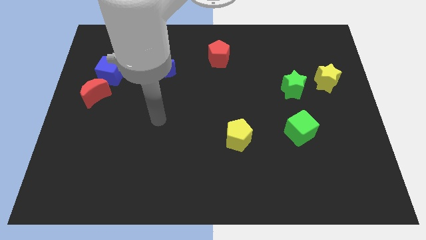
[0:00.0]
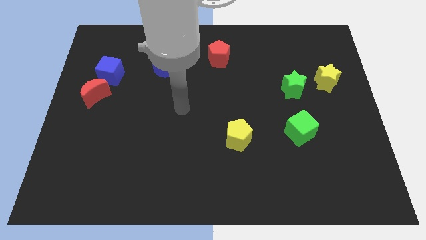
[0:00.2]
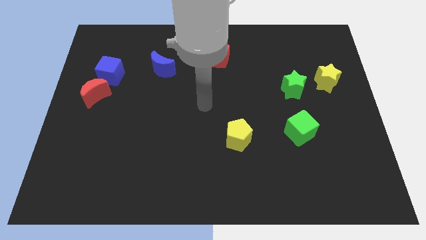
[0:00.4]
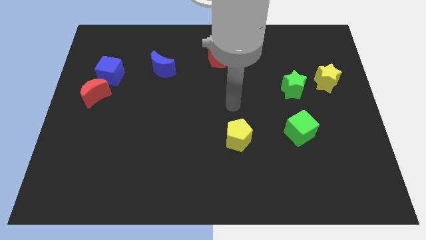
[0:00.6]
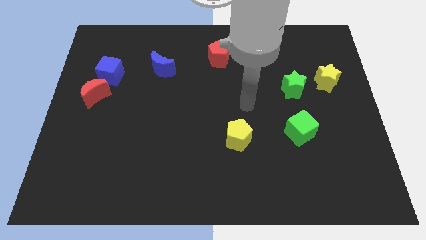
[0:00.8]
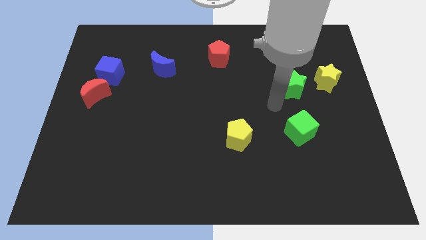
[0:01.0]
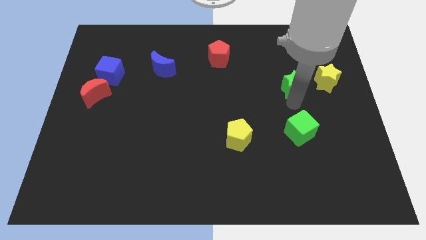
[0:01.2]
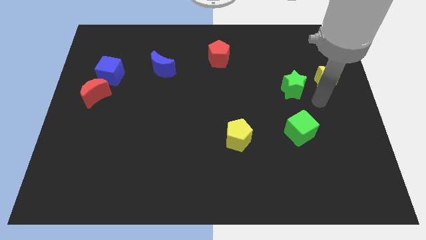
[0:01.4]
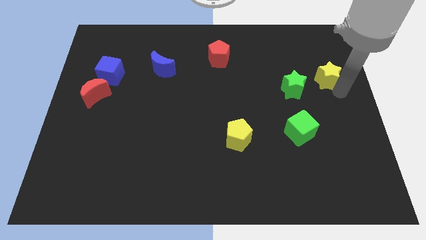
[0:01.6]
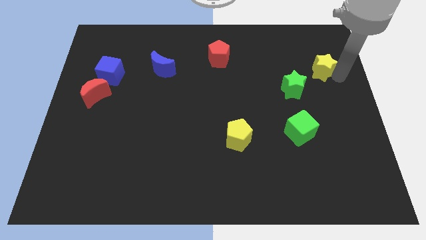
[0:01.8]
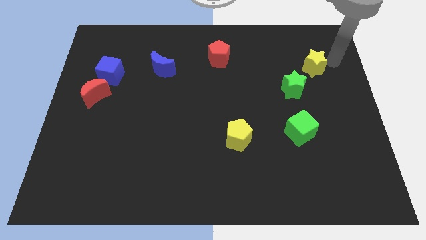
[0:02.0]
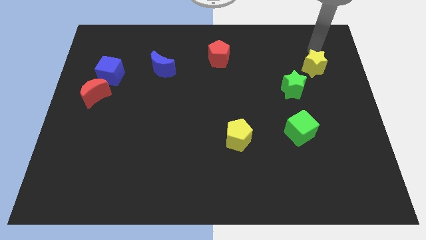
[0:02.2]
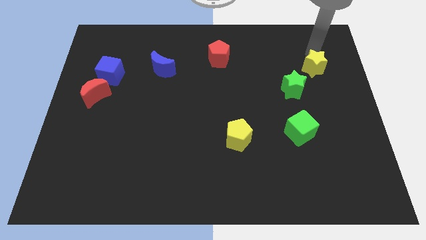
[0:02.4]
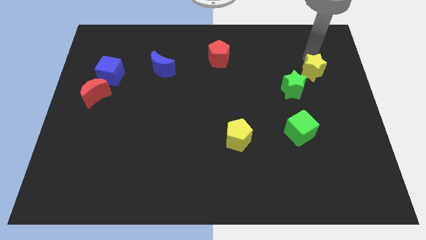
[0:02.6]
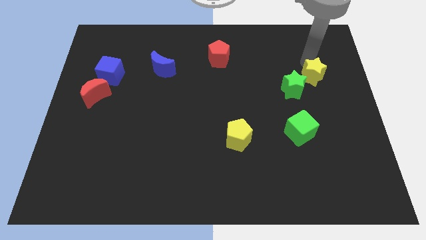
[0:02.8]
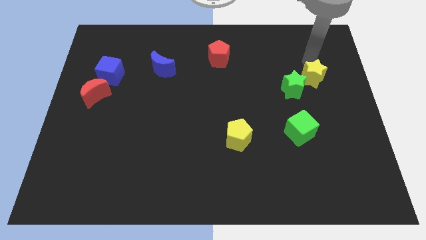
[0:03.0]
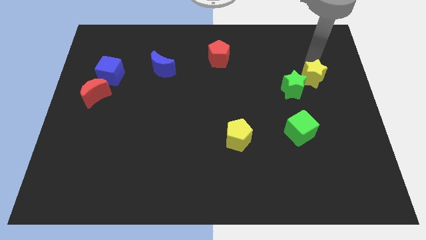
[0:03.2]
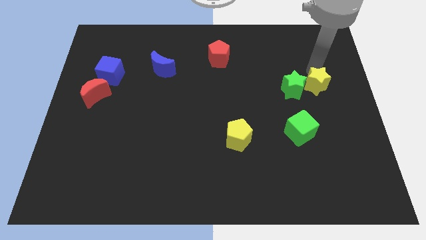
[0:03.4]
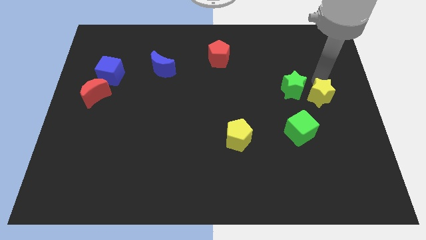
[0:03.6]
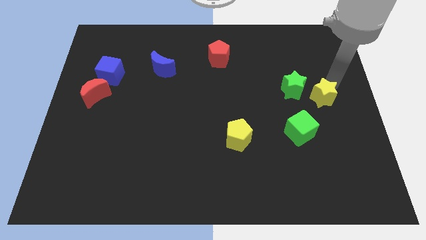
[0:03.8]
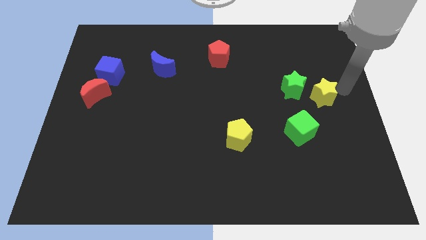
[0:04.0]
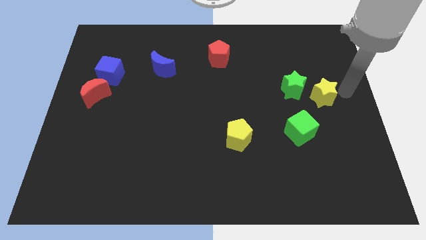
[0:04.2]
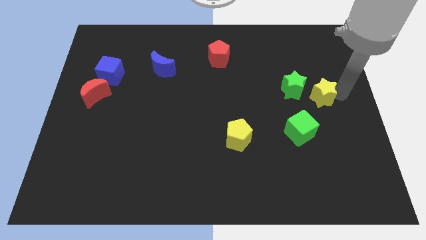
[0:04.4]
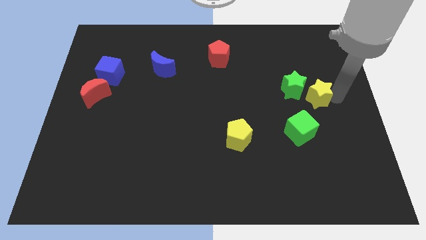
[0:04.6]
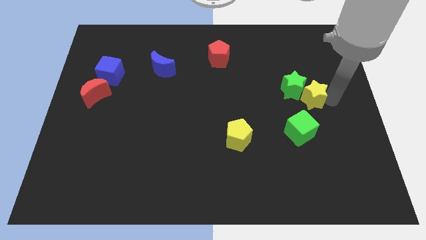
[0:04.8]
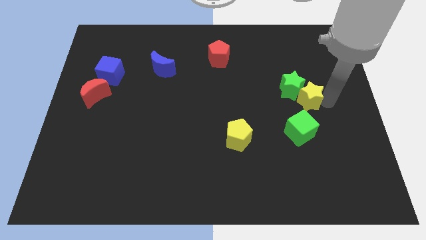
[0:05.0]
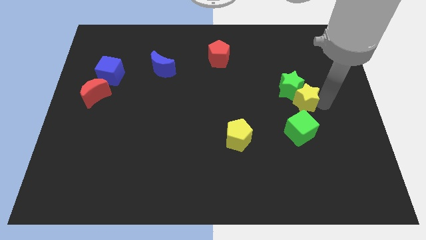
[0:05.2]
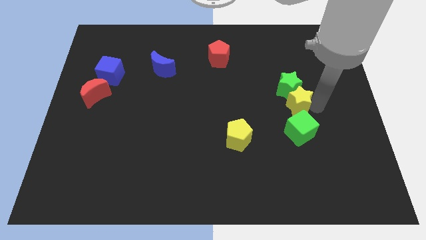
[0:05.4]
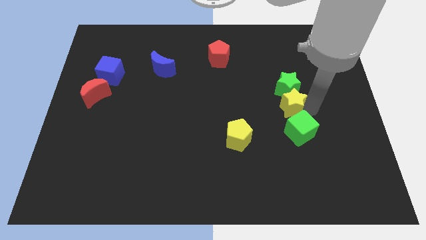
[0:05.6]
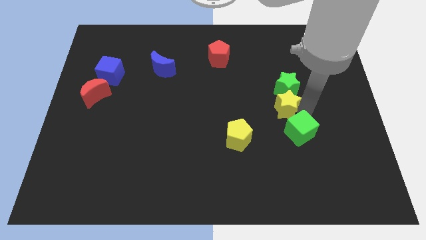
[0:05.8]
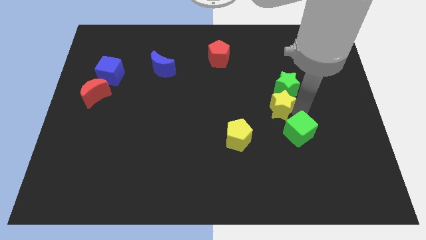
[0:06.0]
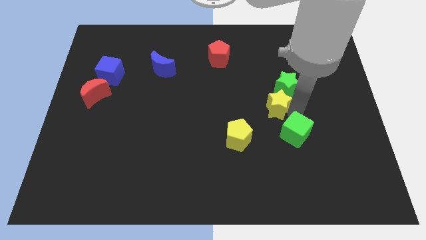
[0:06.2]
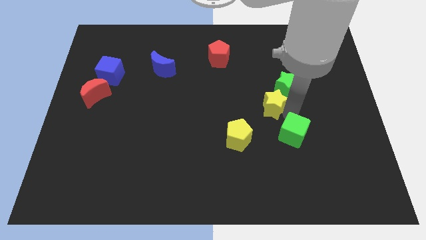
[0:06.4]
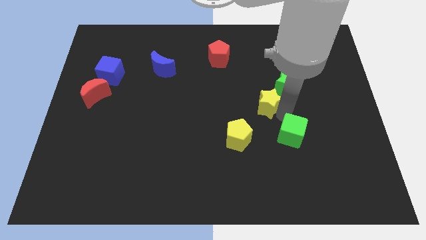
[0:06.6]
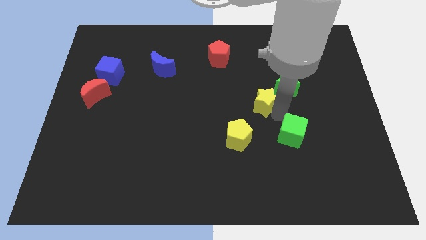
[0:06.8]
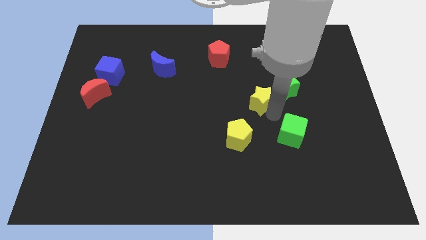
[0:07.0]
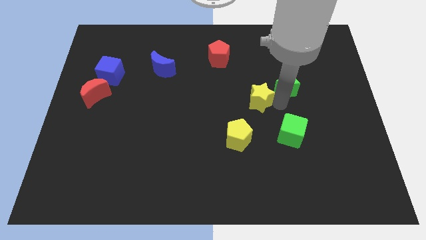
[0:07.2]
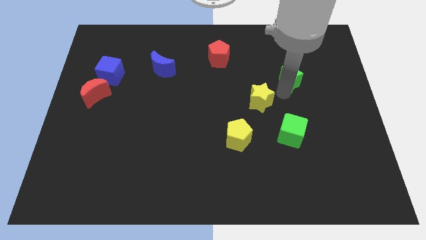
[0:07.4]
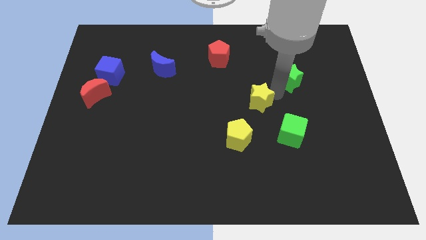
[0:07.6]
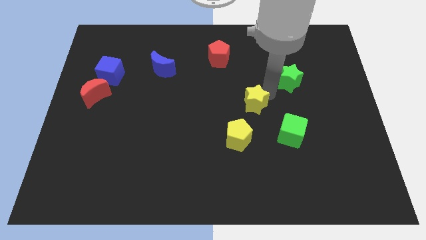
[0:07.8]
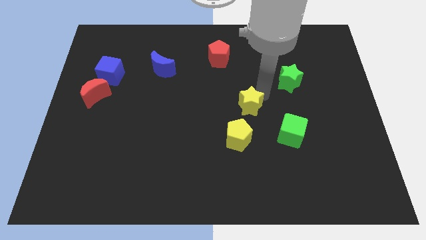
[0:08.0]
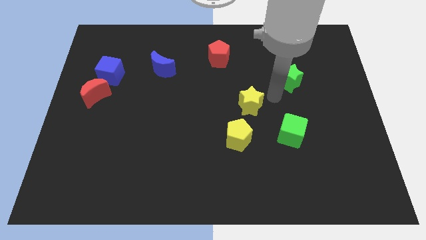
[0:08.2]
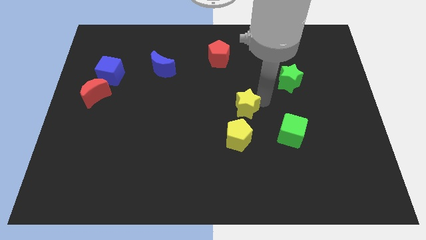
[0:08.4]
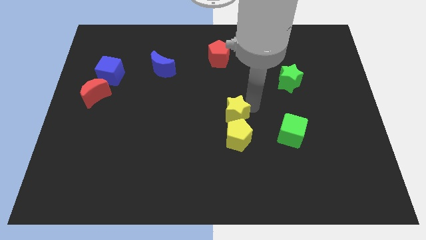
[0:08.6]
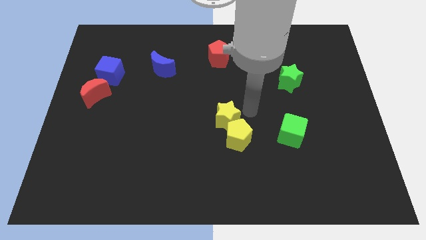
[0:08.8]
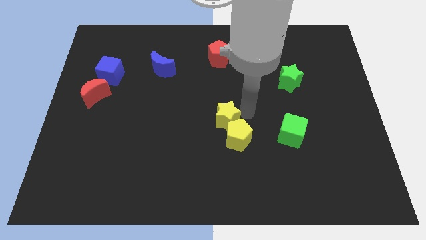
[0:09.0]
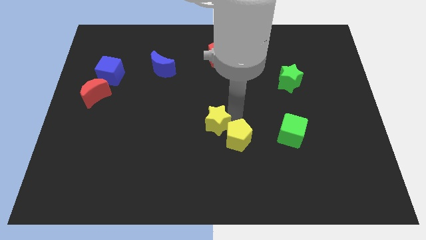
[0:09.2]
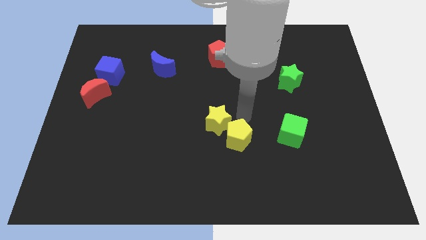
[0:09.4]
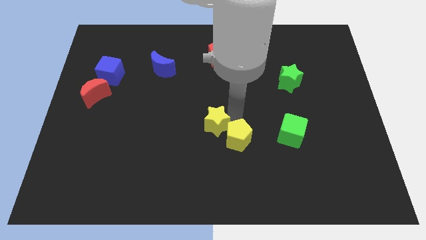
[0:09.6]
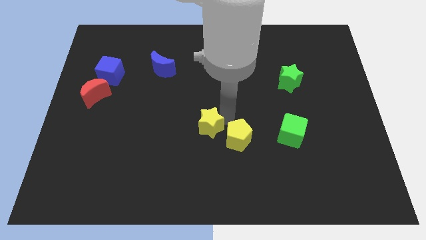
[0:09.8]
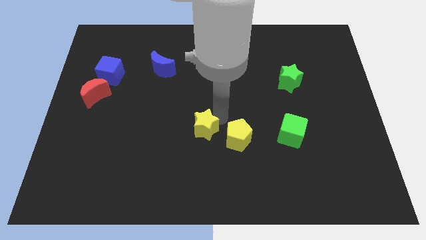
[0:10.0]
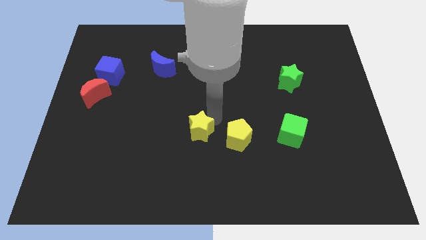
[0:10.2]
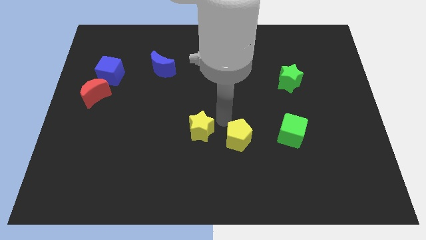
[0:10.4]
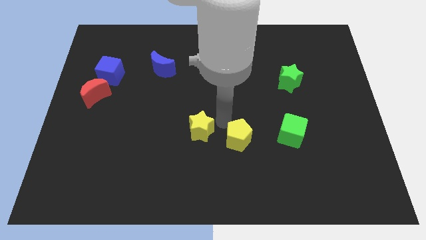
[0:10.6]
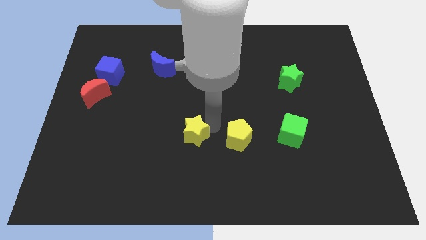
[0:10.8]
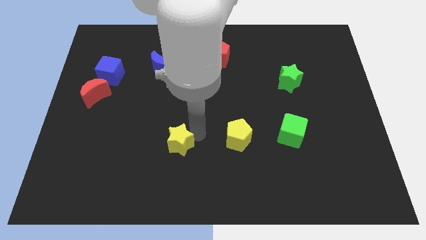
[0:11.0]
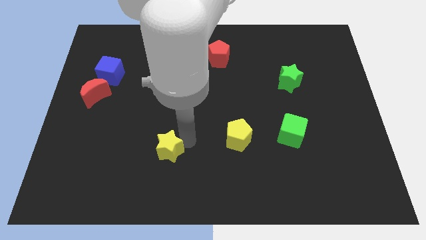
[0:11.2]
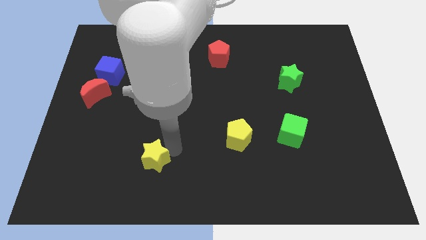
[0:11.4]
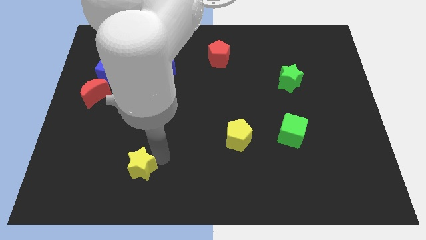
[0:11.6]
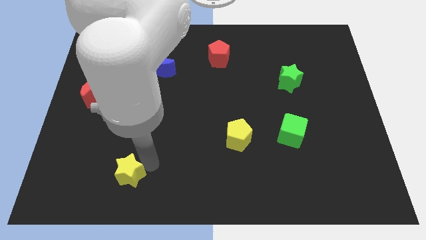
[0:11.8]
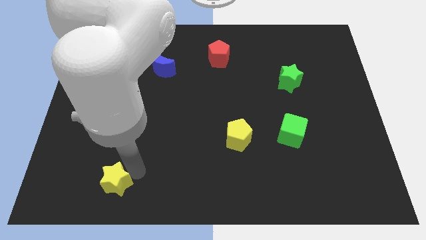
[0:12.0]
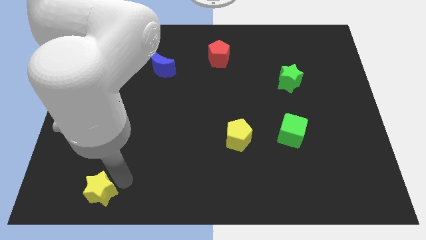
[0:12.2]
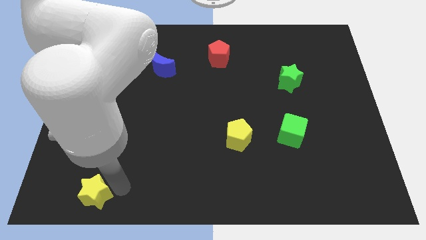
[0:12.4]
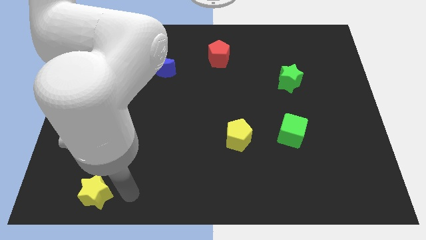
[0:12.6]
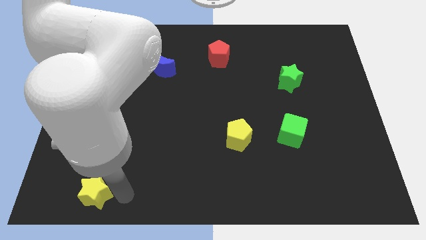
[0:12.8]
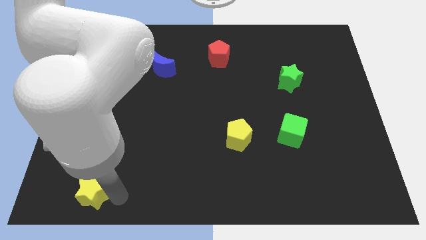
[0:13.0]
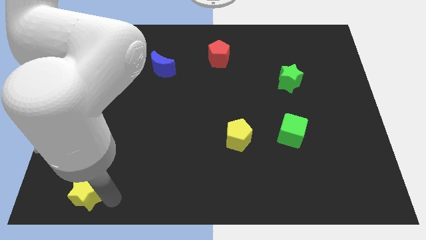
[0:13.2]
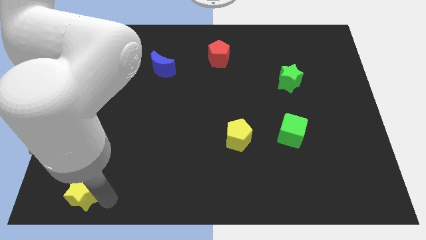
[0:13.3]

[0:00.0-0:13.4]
slide the yellow star to the bottom left
